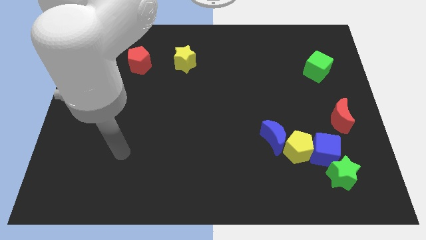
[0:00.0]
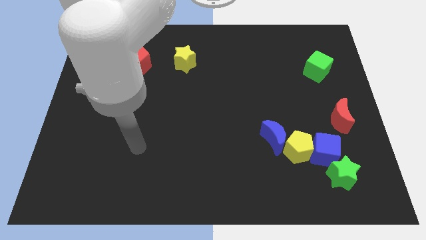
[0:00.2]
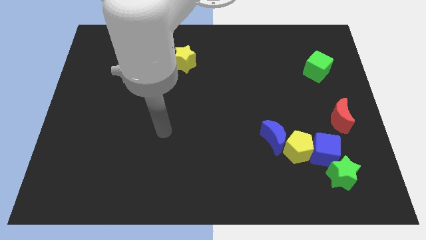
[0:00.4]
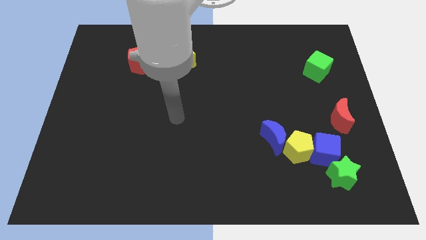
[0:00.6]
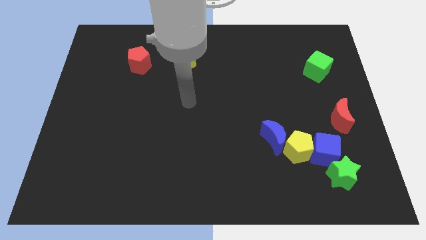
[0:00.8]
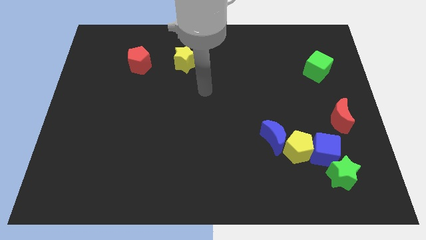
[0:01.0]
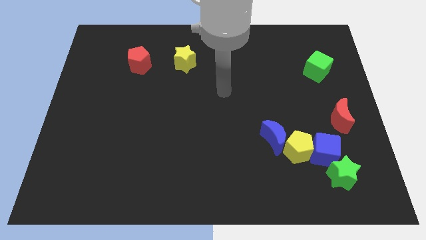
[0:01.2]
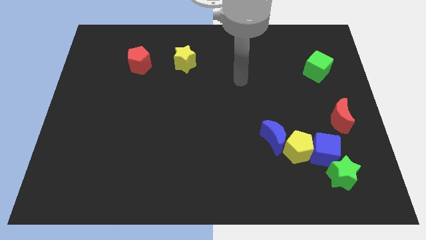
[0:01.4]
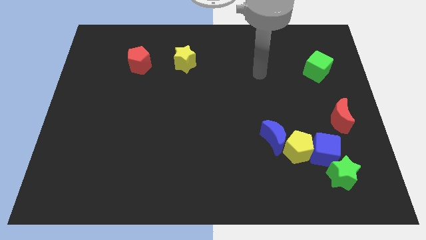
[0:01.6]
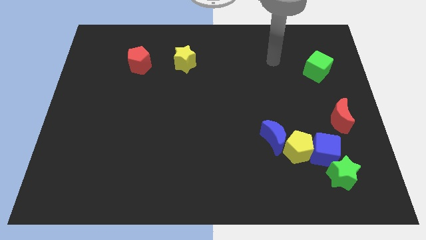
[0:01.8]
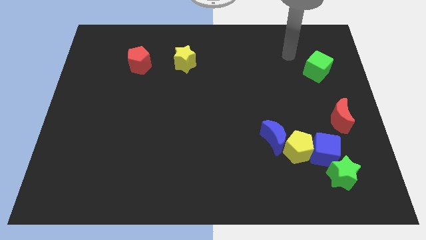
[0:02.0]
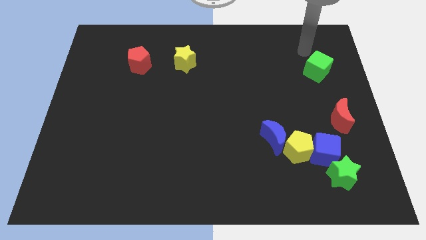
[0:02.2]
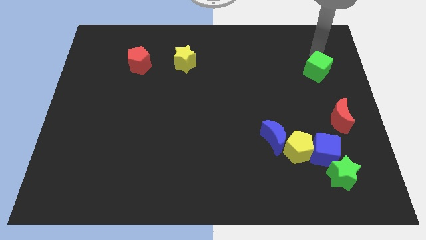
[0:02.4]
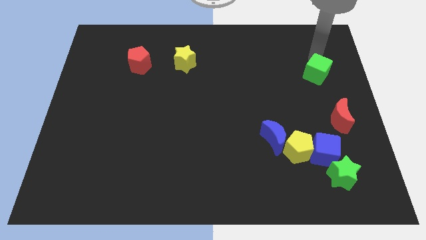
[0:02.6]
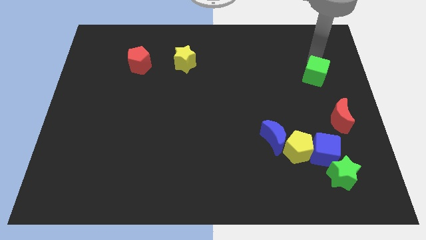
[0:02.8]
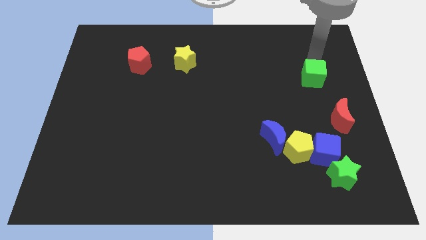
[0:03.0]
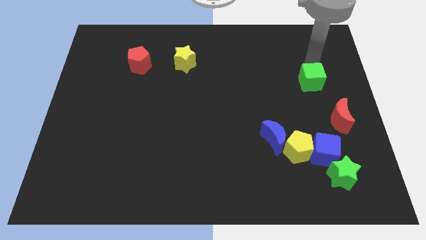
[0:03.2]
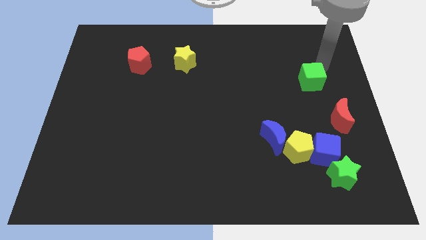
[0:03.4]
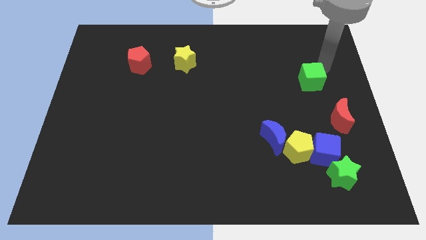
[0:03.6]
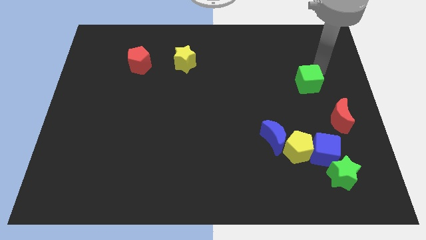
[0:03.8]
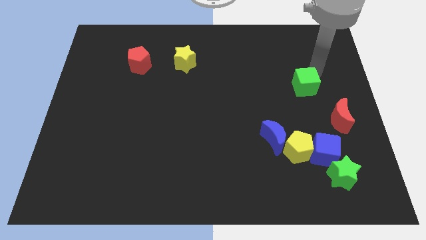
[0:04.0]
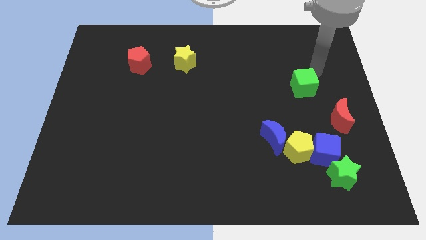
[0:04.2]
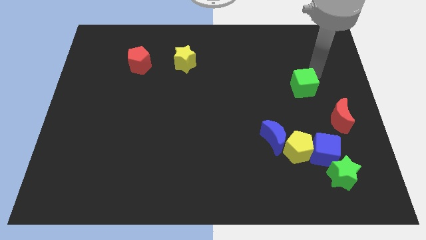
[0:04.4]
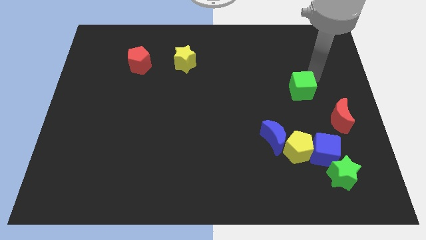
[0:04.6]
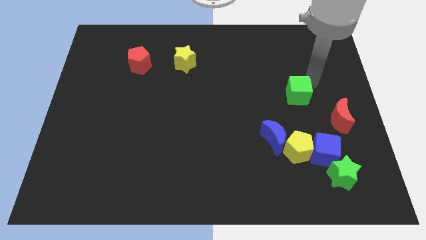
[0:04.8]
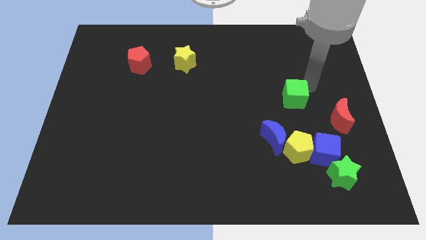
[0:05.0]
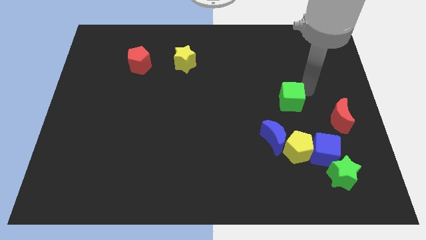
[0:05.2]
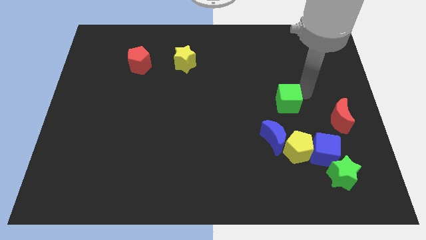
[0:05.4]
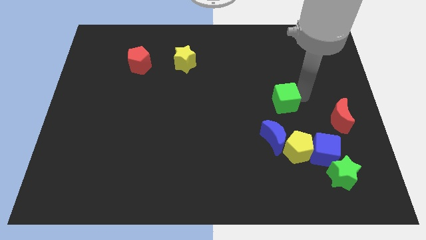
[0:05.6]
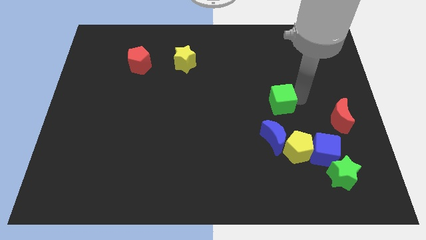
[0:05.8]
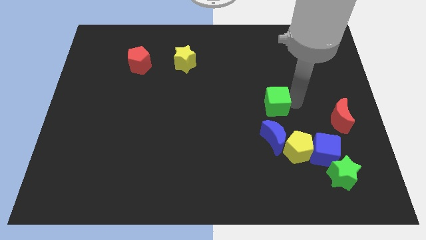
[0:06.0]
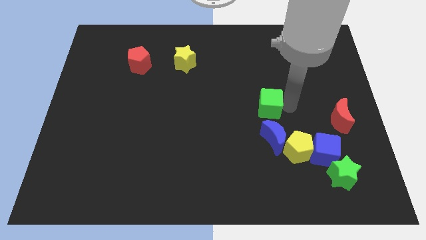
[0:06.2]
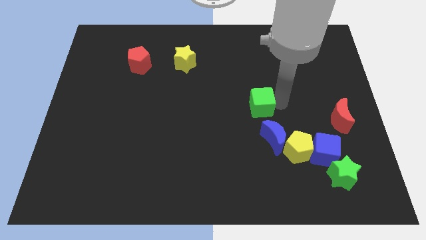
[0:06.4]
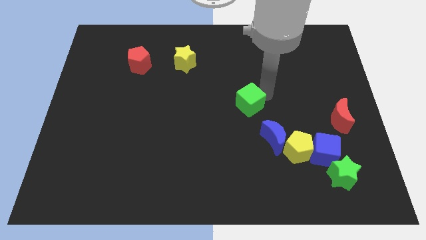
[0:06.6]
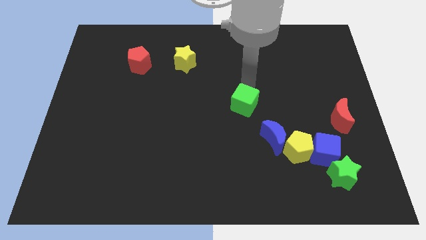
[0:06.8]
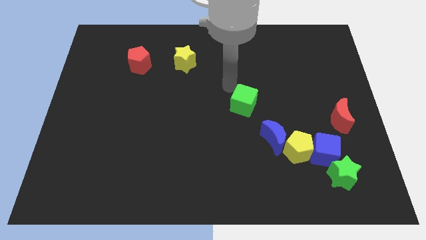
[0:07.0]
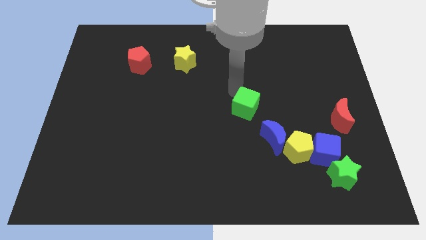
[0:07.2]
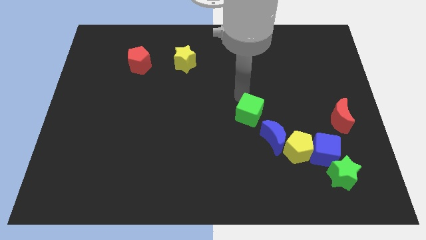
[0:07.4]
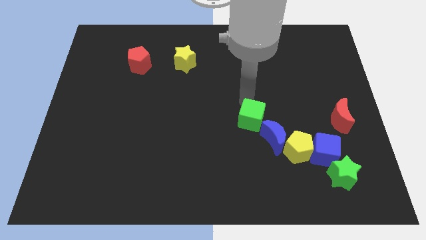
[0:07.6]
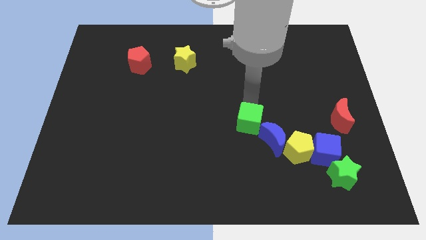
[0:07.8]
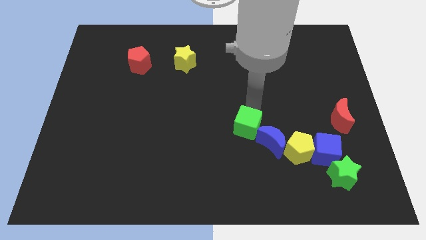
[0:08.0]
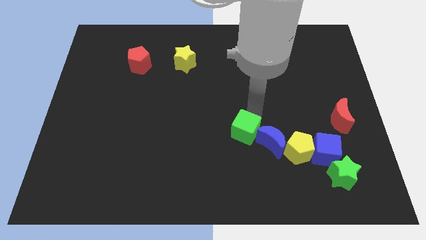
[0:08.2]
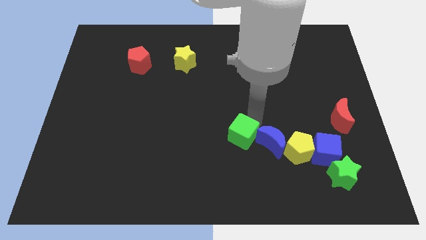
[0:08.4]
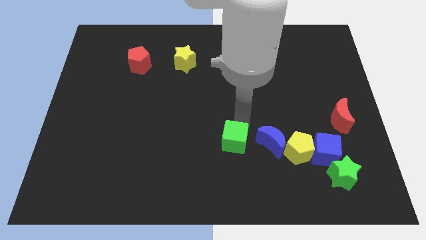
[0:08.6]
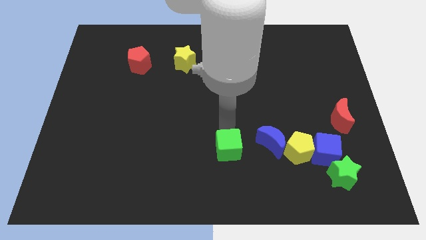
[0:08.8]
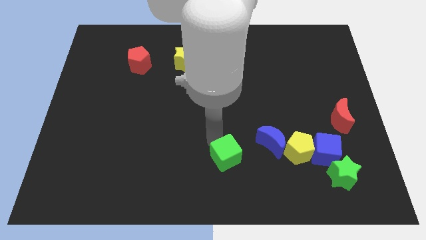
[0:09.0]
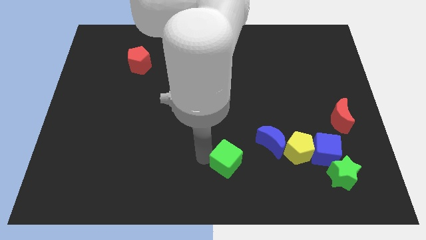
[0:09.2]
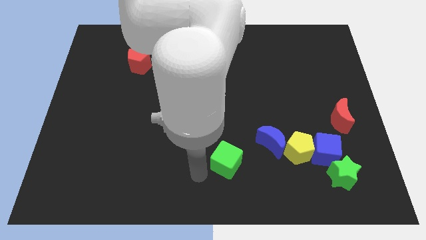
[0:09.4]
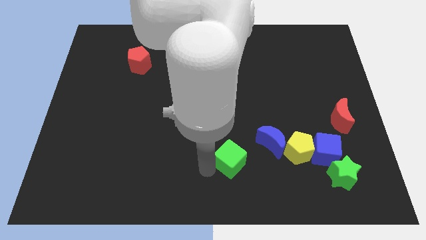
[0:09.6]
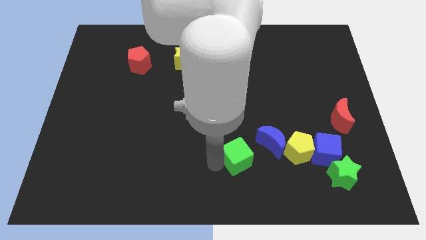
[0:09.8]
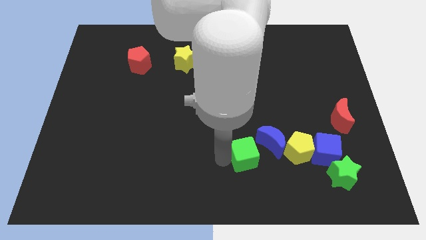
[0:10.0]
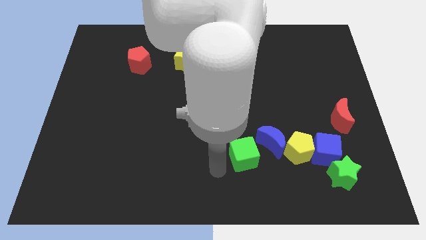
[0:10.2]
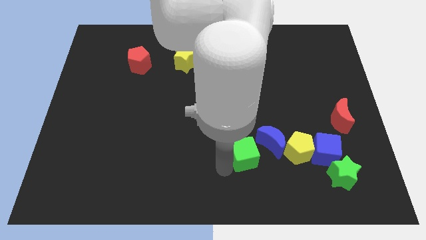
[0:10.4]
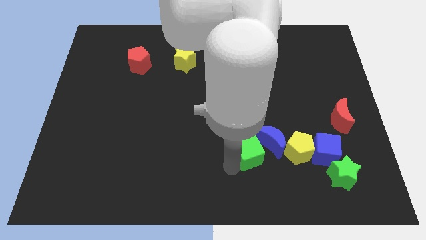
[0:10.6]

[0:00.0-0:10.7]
move the green cube next to the blue moon

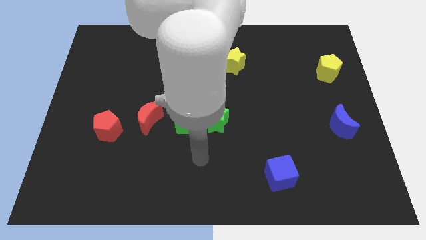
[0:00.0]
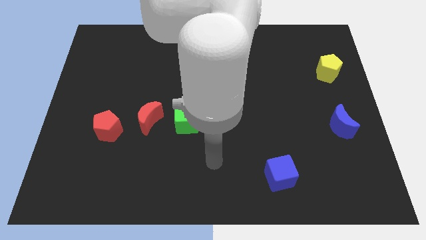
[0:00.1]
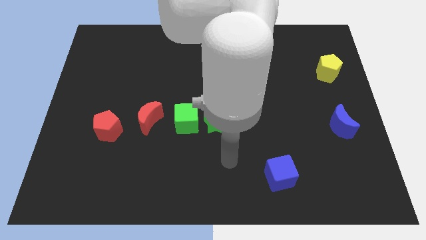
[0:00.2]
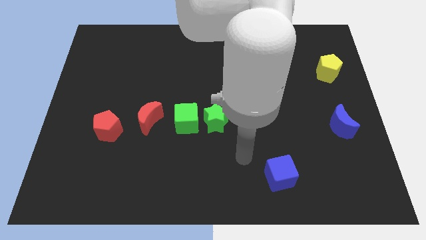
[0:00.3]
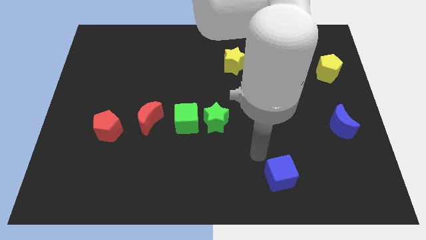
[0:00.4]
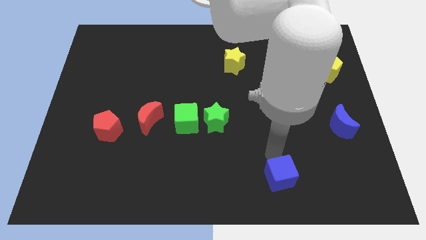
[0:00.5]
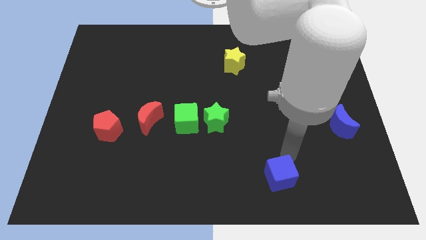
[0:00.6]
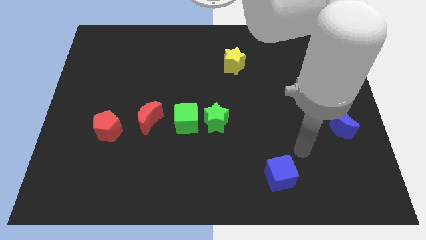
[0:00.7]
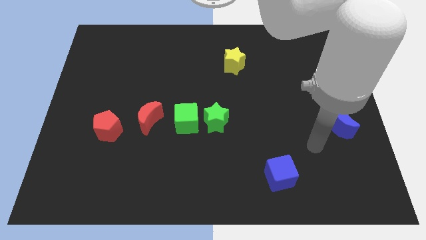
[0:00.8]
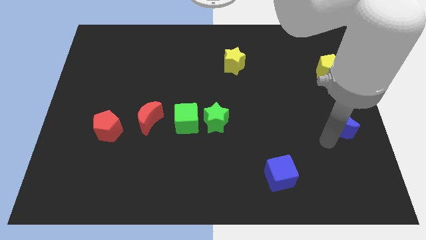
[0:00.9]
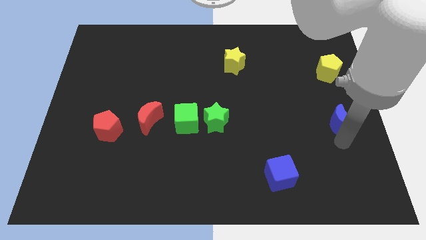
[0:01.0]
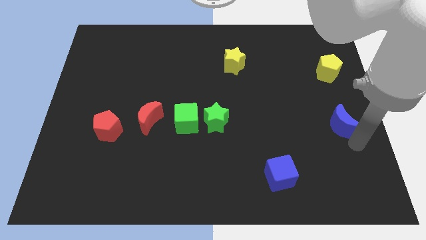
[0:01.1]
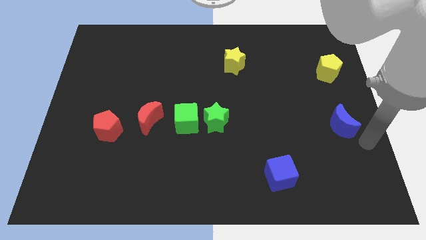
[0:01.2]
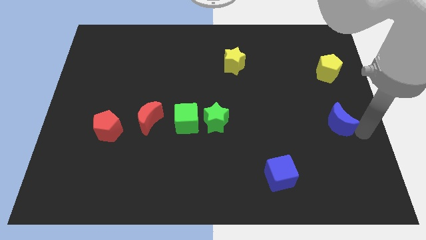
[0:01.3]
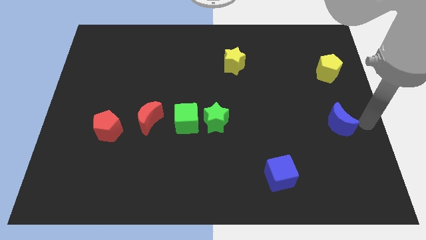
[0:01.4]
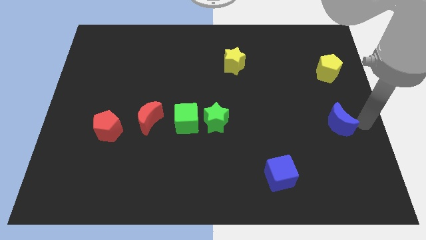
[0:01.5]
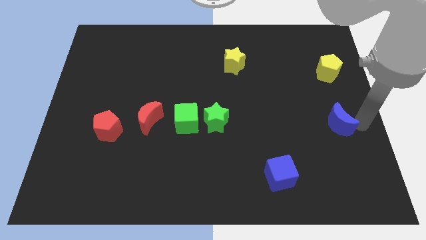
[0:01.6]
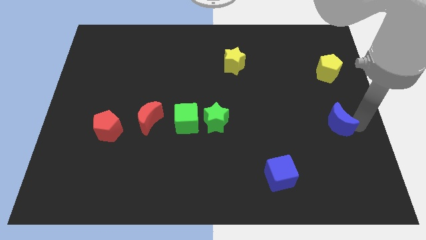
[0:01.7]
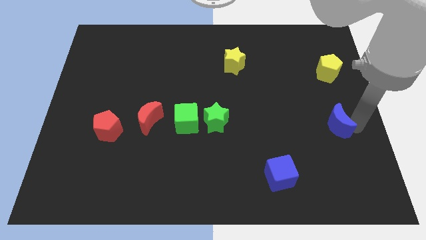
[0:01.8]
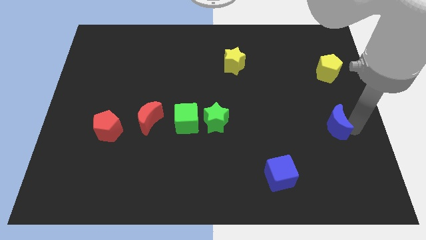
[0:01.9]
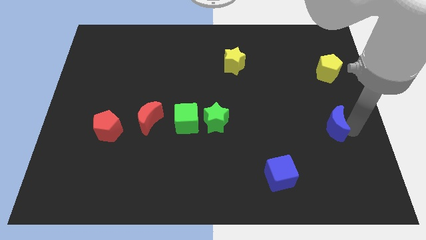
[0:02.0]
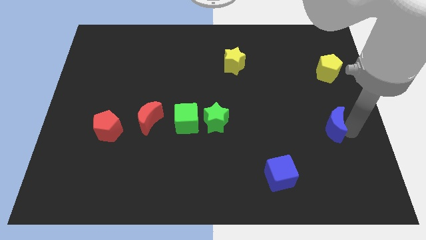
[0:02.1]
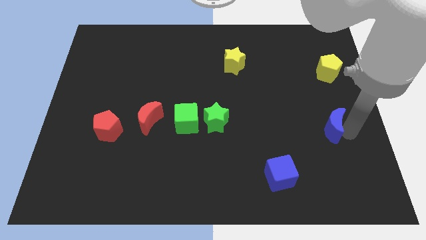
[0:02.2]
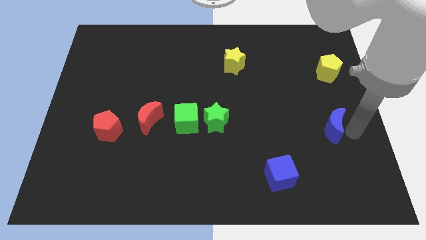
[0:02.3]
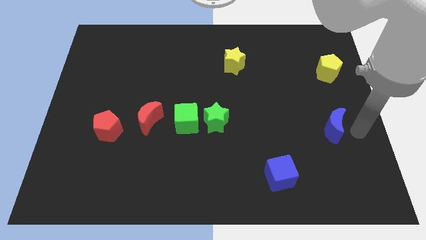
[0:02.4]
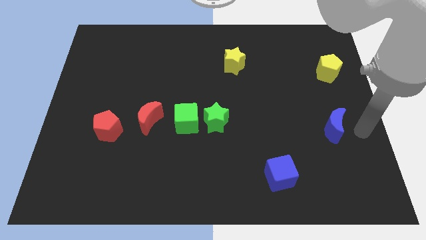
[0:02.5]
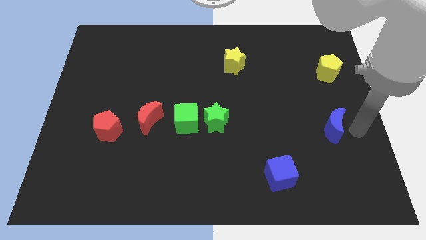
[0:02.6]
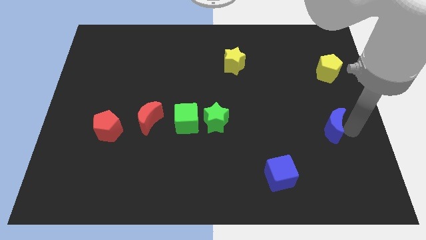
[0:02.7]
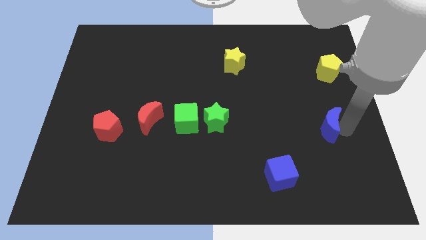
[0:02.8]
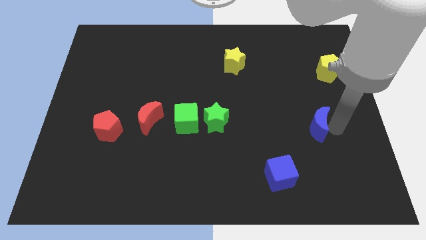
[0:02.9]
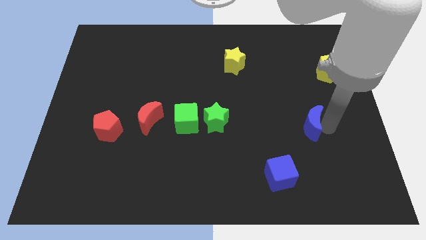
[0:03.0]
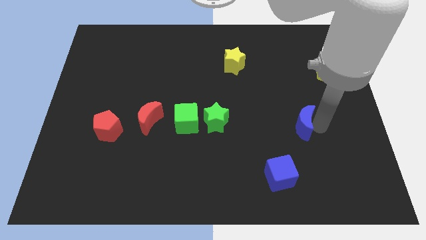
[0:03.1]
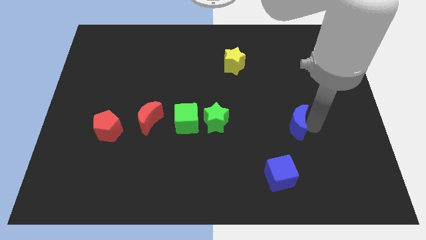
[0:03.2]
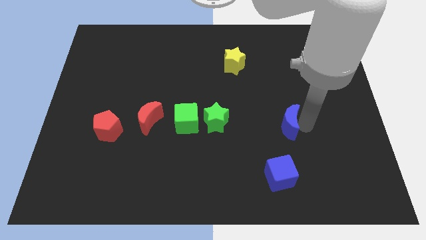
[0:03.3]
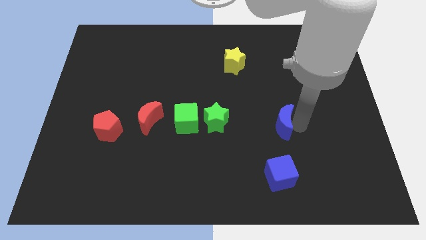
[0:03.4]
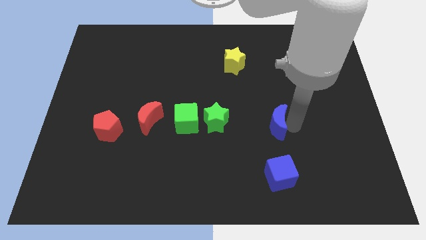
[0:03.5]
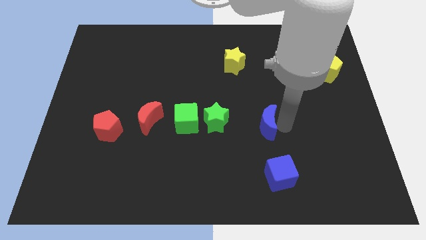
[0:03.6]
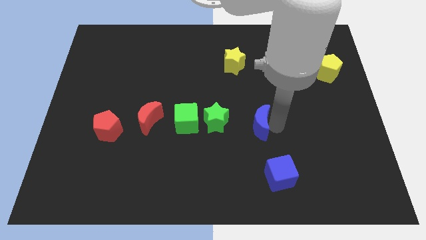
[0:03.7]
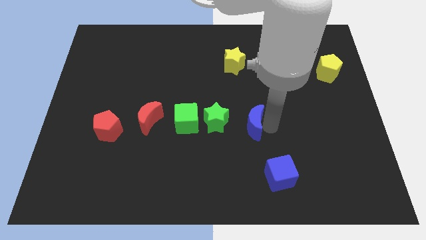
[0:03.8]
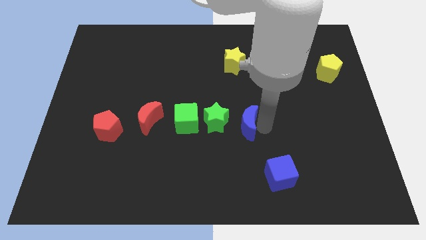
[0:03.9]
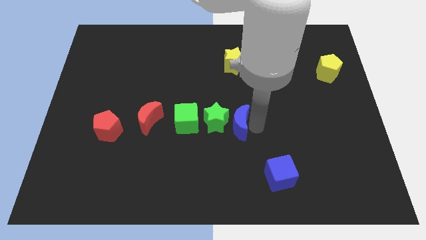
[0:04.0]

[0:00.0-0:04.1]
push the blue moon towards the green star
